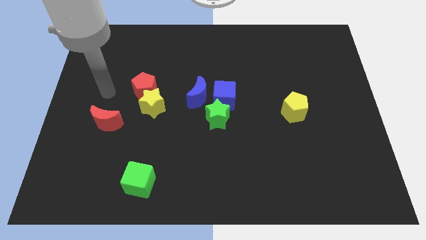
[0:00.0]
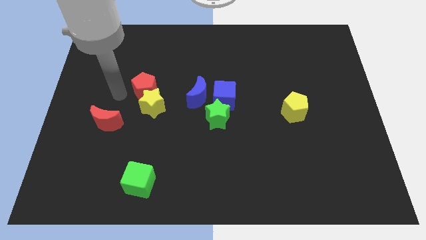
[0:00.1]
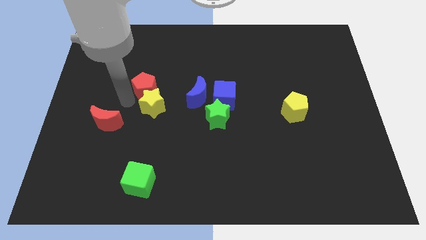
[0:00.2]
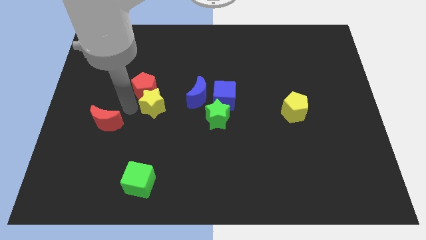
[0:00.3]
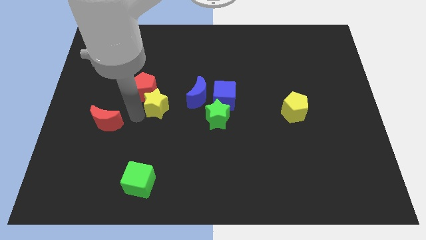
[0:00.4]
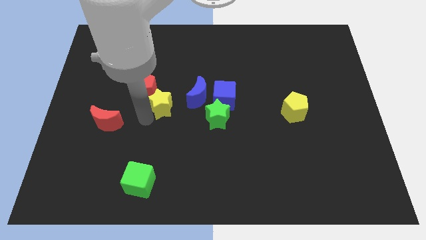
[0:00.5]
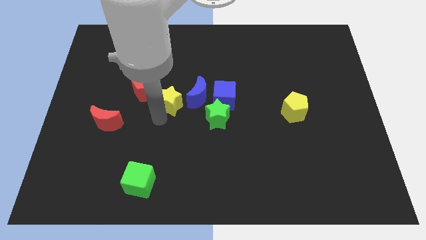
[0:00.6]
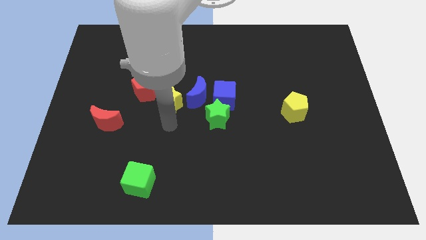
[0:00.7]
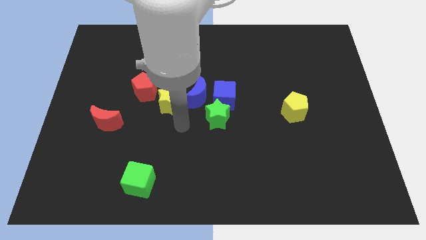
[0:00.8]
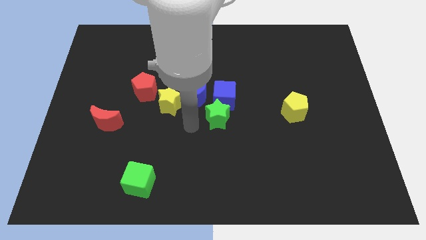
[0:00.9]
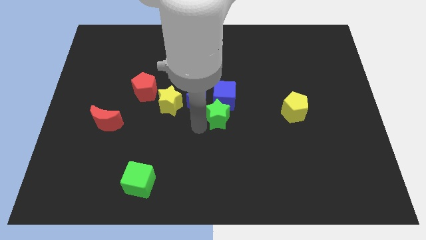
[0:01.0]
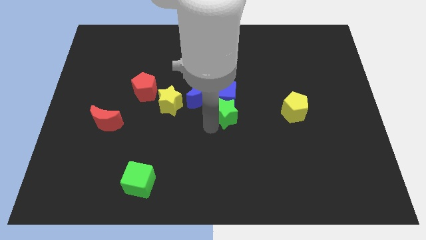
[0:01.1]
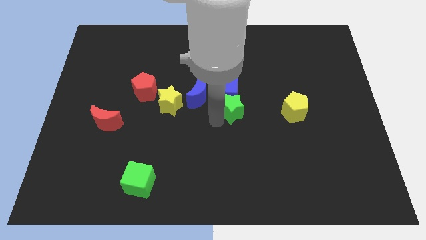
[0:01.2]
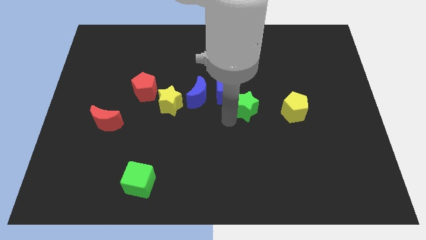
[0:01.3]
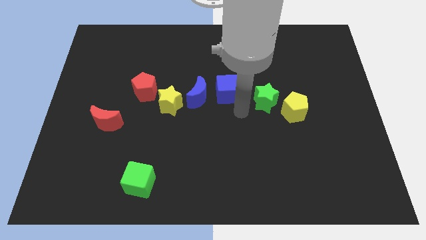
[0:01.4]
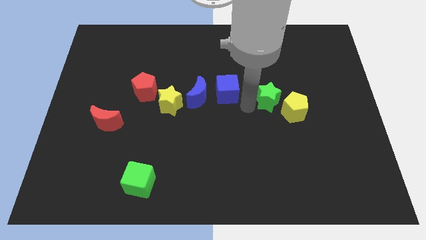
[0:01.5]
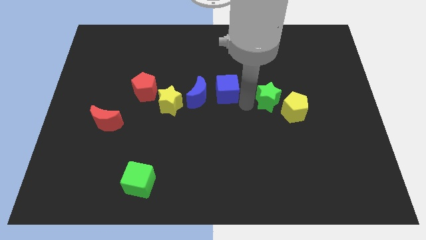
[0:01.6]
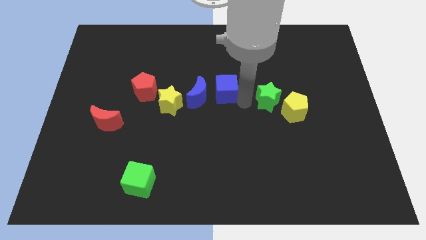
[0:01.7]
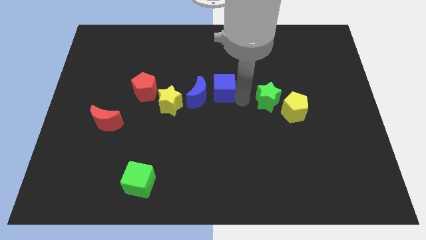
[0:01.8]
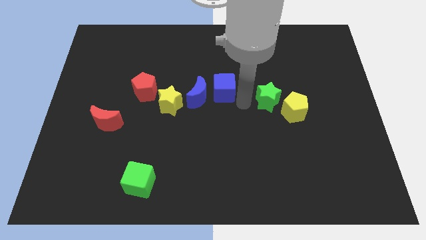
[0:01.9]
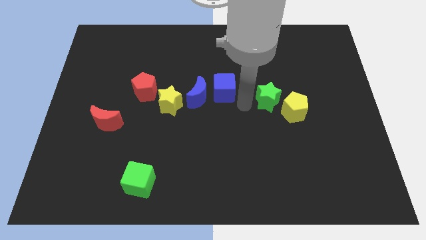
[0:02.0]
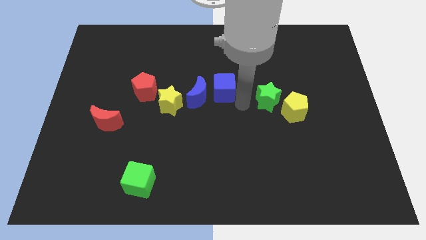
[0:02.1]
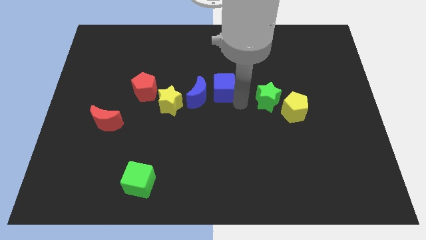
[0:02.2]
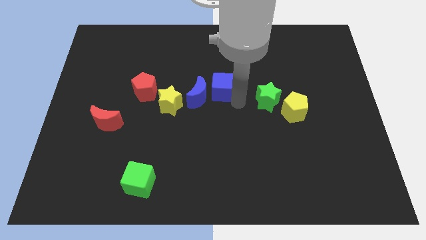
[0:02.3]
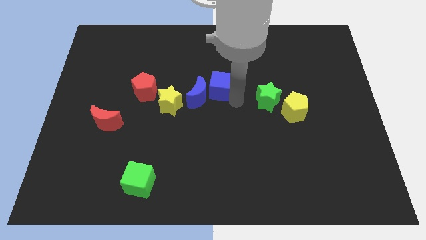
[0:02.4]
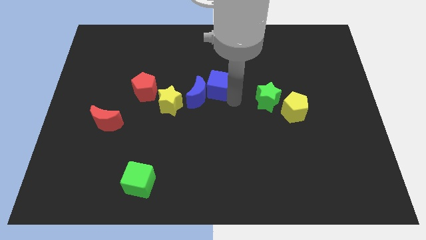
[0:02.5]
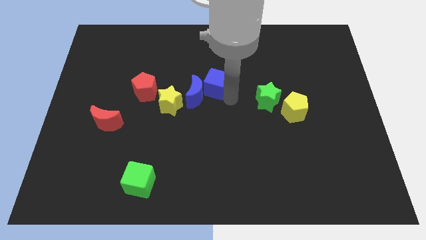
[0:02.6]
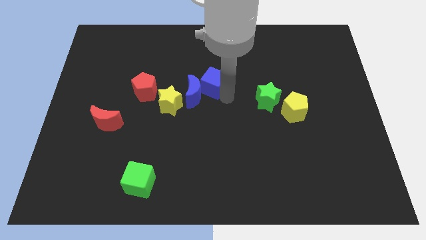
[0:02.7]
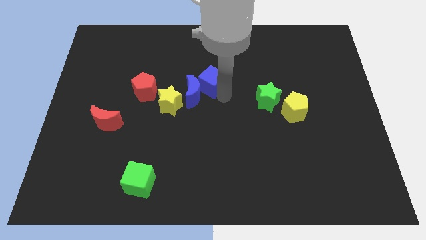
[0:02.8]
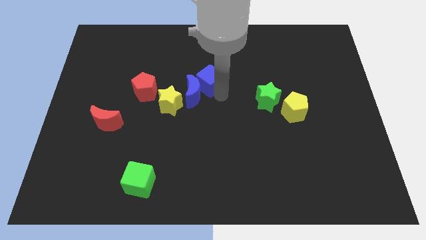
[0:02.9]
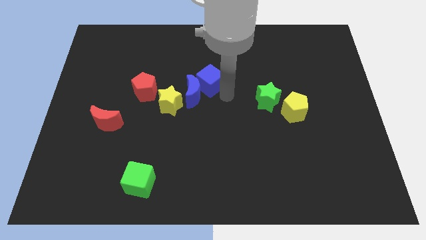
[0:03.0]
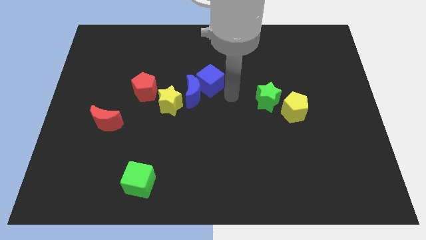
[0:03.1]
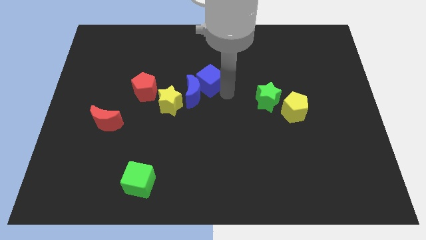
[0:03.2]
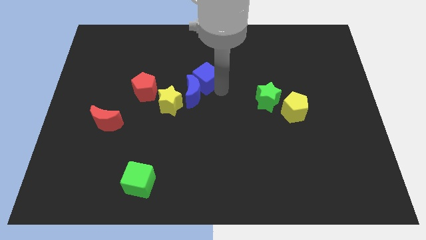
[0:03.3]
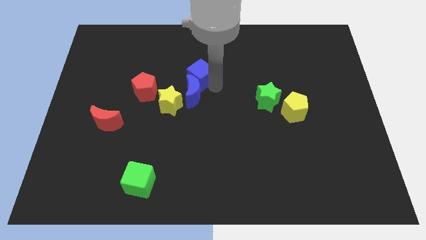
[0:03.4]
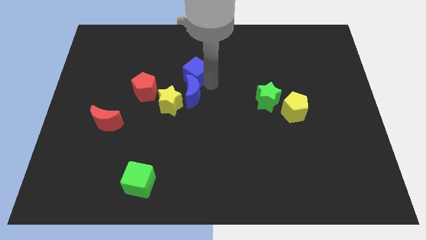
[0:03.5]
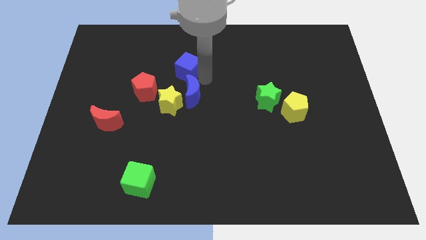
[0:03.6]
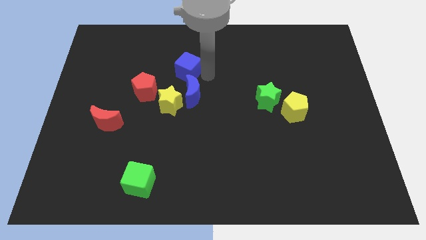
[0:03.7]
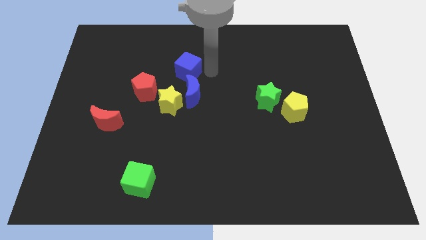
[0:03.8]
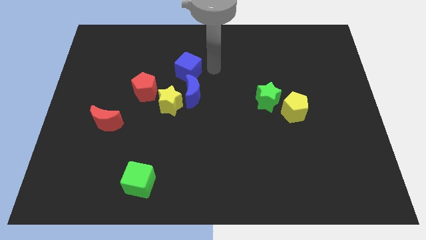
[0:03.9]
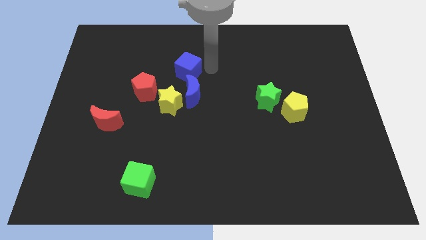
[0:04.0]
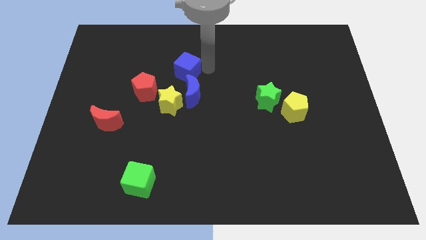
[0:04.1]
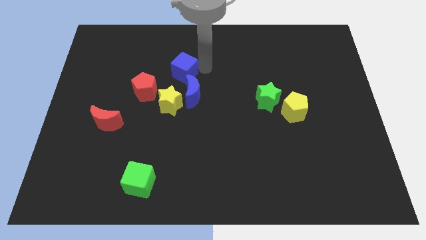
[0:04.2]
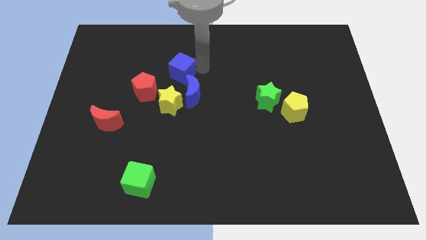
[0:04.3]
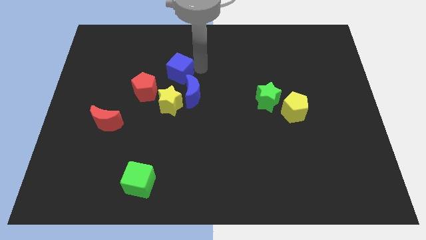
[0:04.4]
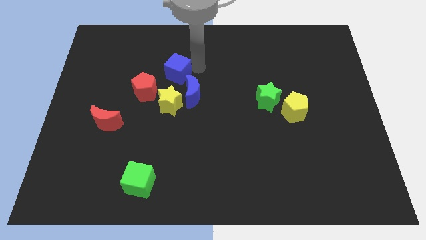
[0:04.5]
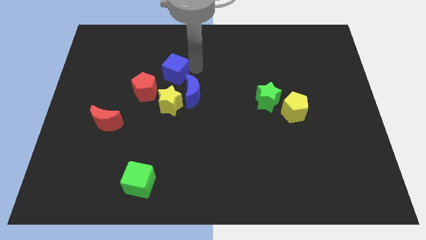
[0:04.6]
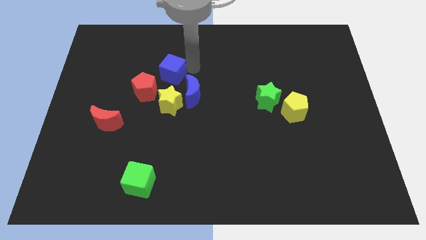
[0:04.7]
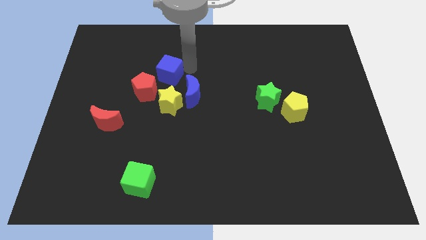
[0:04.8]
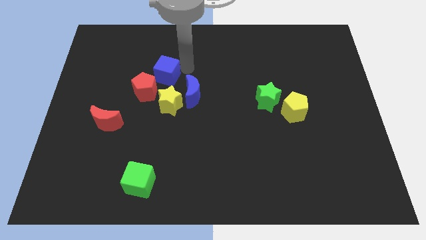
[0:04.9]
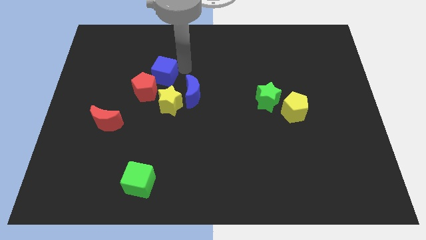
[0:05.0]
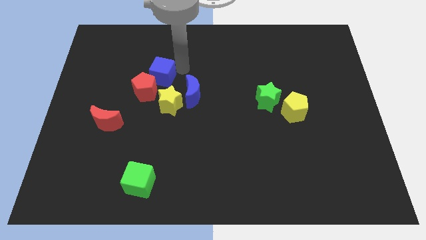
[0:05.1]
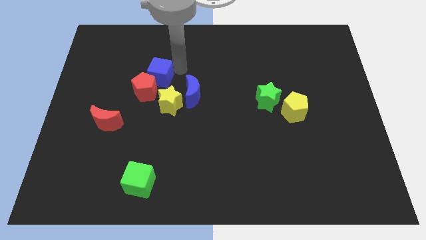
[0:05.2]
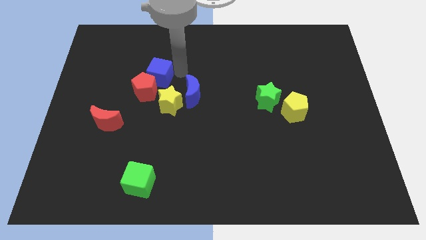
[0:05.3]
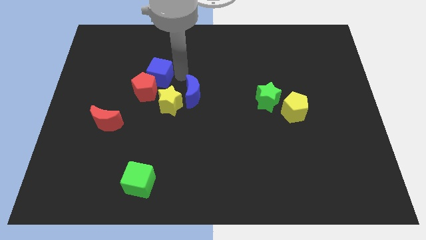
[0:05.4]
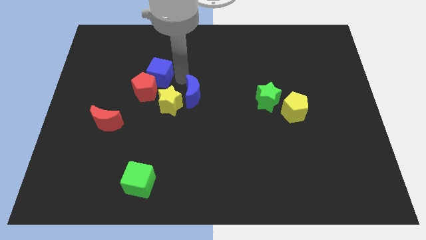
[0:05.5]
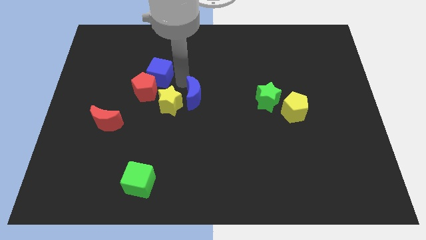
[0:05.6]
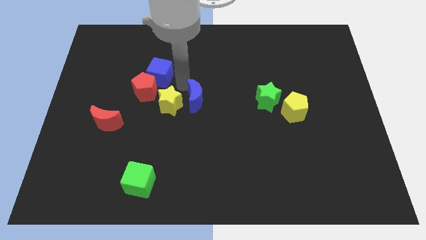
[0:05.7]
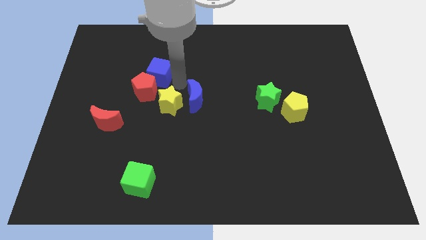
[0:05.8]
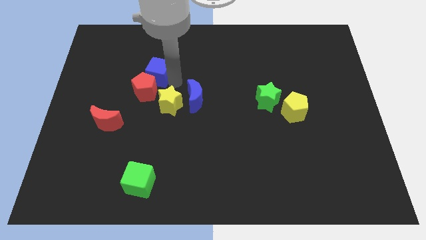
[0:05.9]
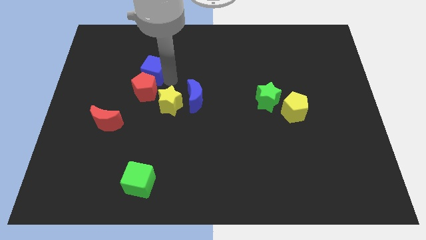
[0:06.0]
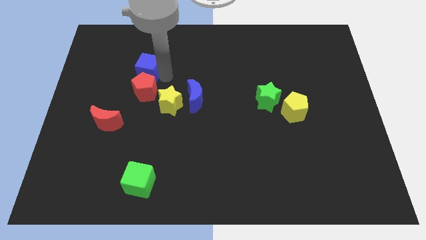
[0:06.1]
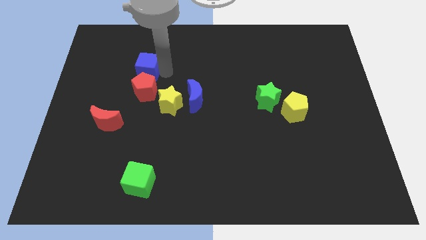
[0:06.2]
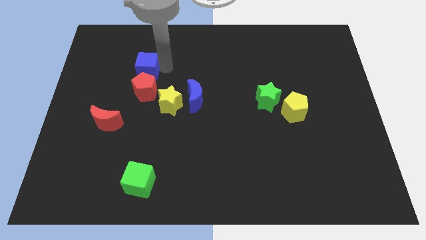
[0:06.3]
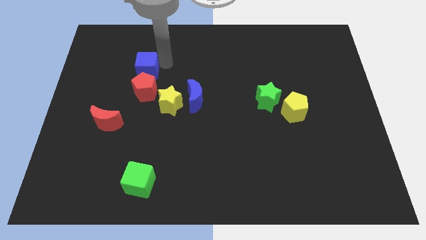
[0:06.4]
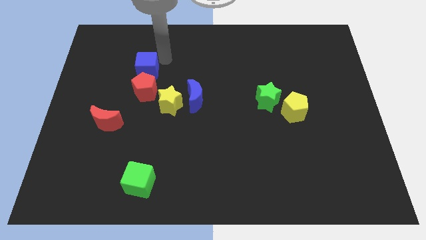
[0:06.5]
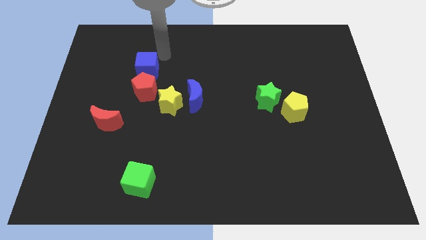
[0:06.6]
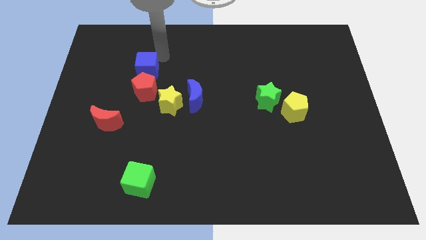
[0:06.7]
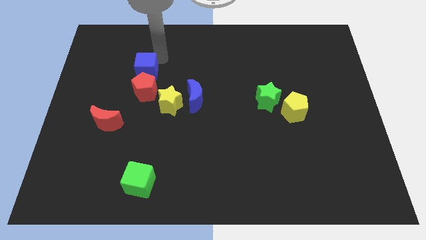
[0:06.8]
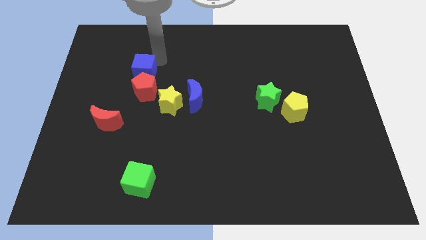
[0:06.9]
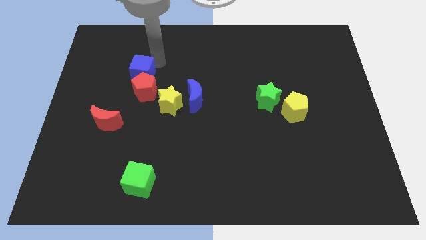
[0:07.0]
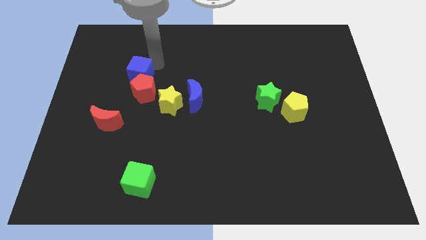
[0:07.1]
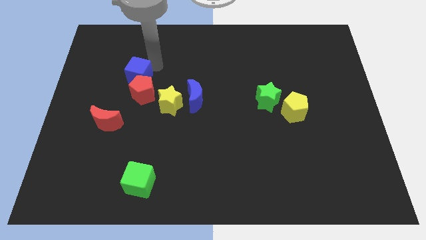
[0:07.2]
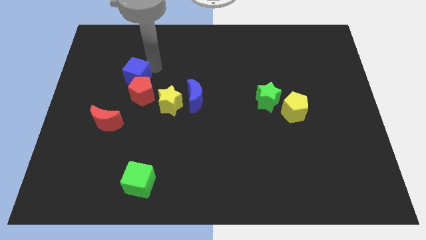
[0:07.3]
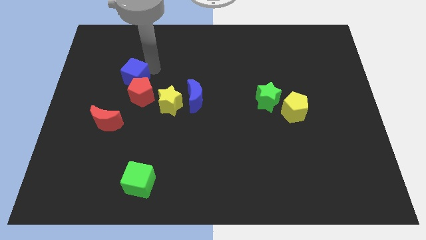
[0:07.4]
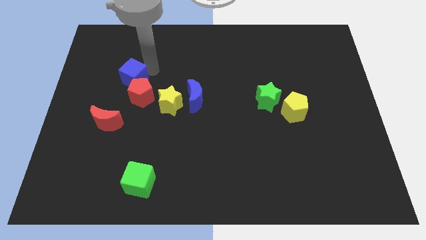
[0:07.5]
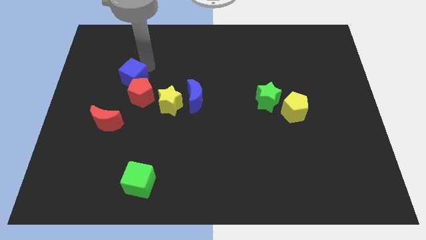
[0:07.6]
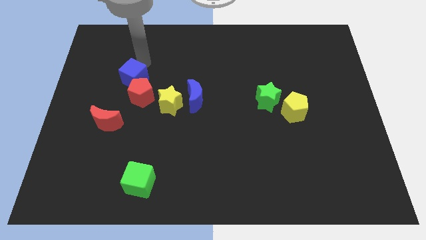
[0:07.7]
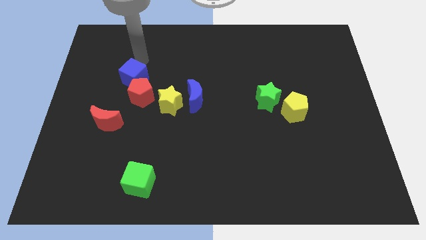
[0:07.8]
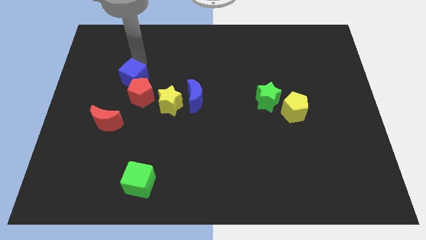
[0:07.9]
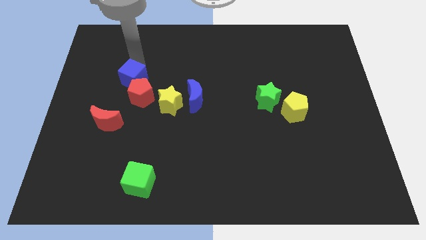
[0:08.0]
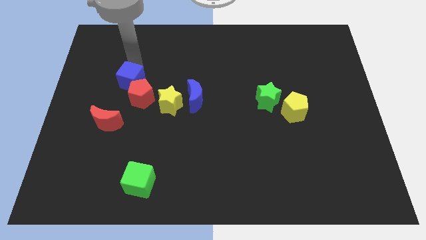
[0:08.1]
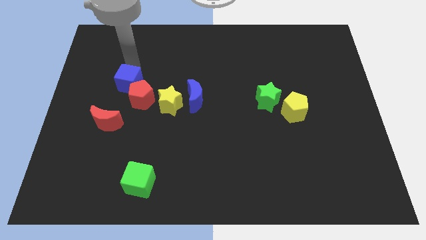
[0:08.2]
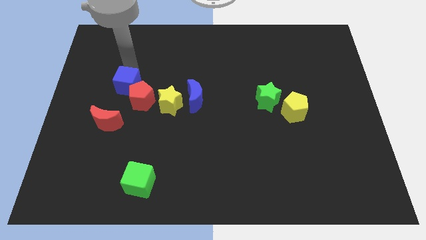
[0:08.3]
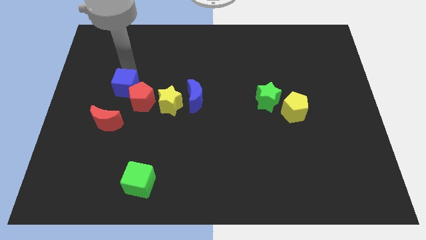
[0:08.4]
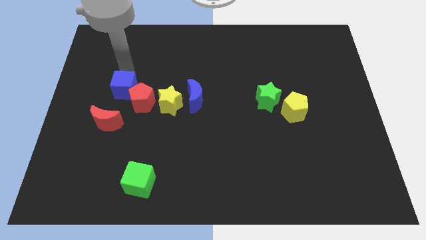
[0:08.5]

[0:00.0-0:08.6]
put the blue cube left of the yellow star
